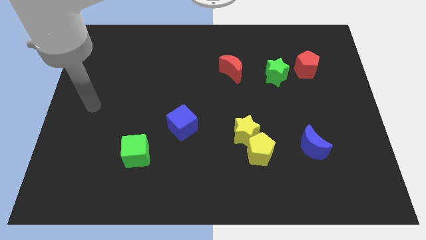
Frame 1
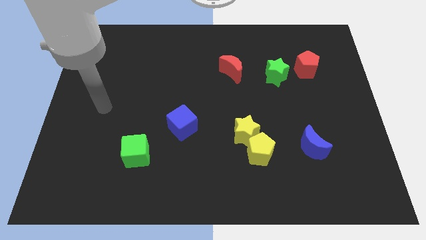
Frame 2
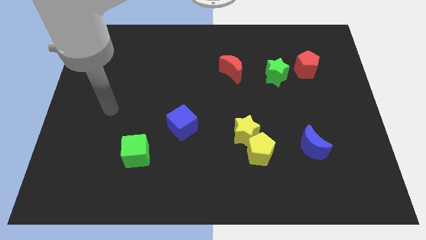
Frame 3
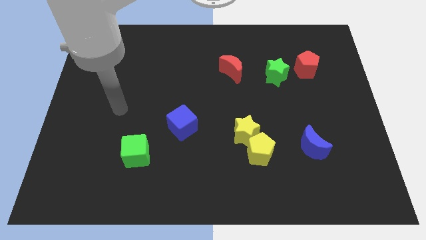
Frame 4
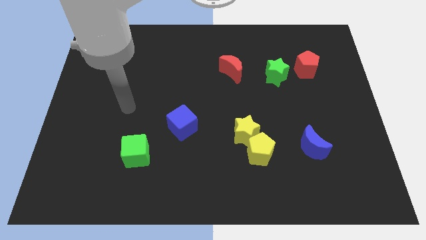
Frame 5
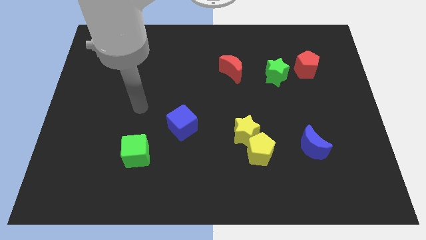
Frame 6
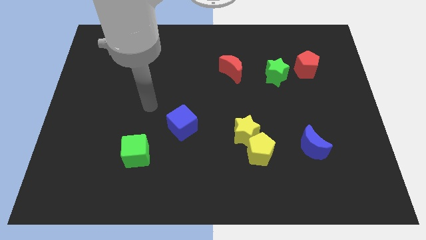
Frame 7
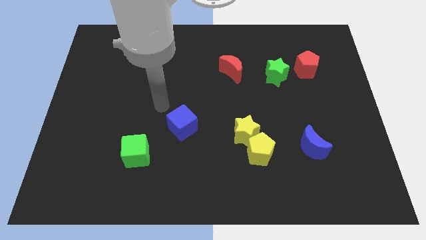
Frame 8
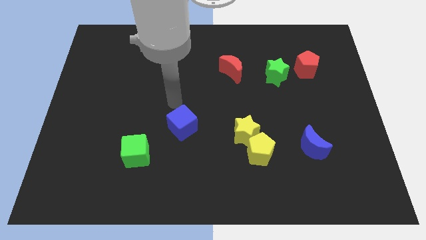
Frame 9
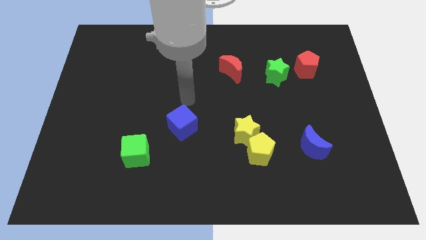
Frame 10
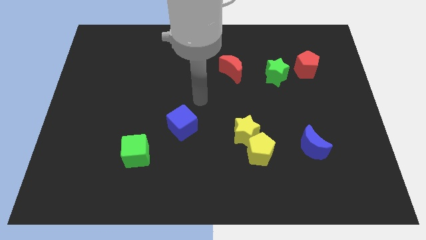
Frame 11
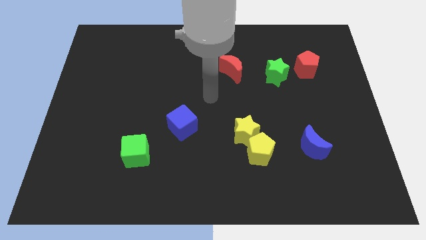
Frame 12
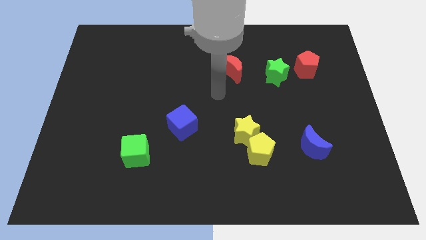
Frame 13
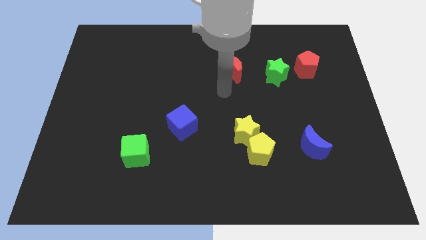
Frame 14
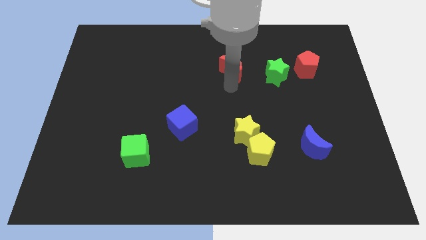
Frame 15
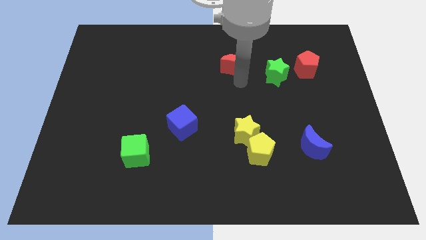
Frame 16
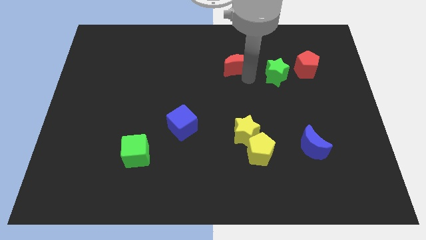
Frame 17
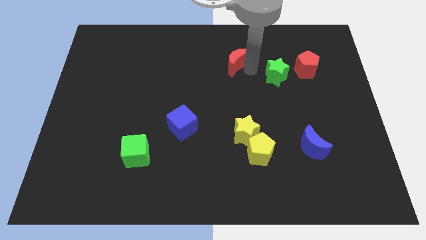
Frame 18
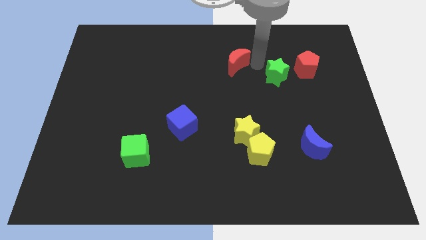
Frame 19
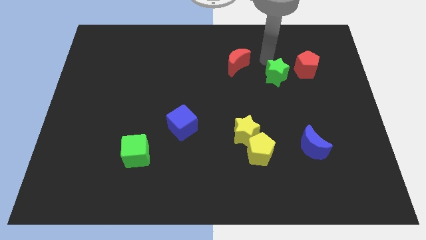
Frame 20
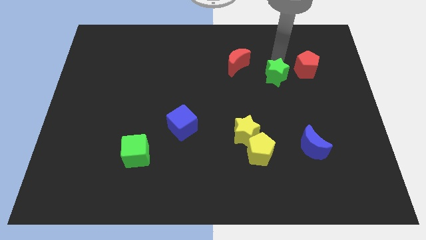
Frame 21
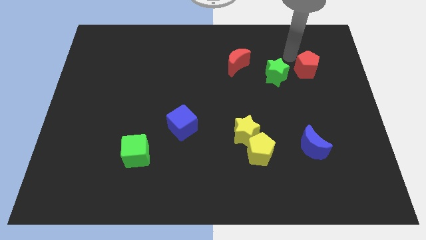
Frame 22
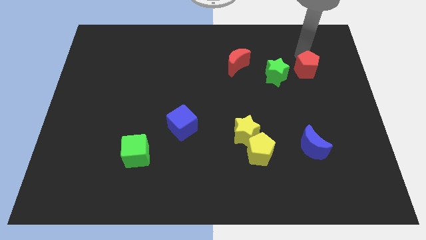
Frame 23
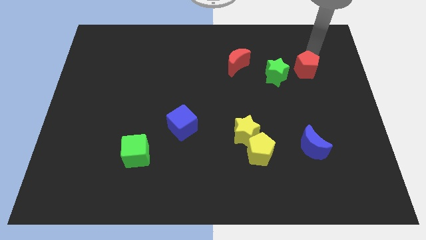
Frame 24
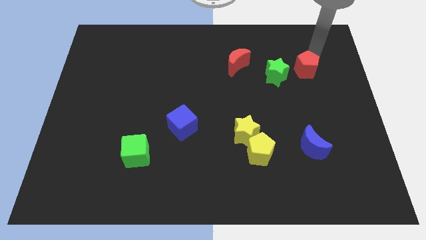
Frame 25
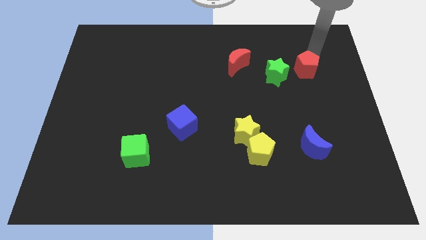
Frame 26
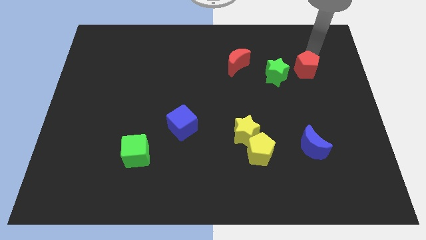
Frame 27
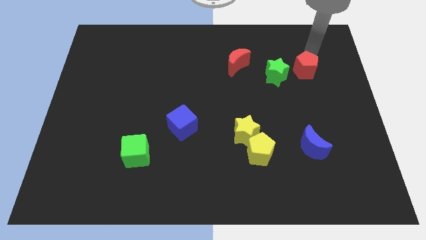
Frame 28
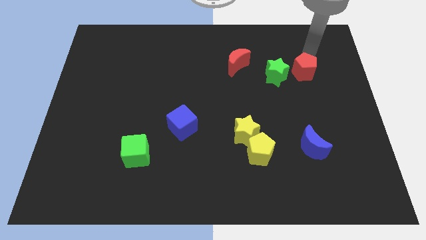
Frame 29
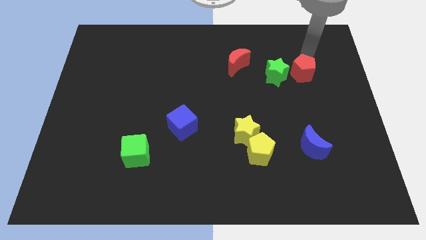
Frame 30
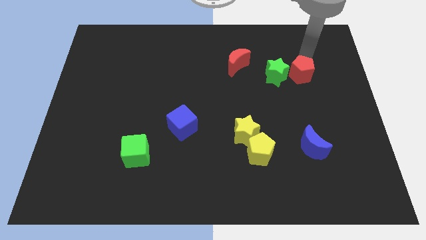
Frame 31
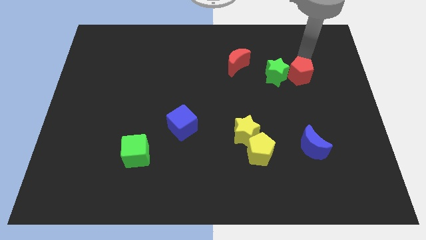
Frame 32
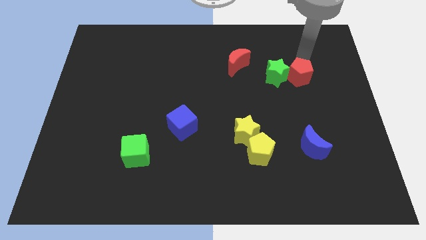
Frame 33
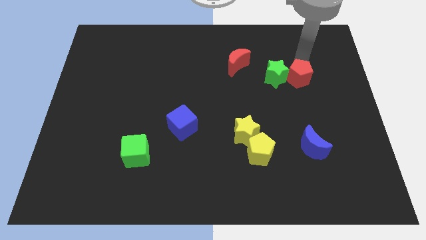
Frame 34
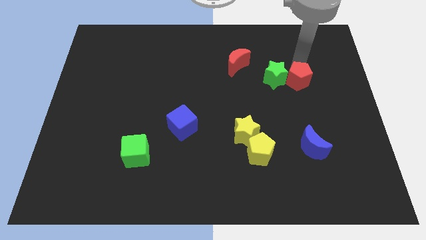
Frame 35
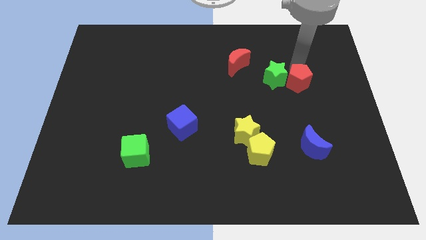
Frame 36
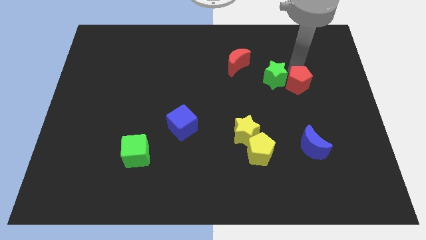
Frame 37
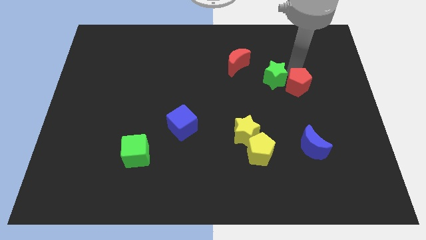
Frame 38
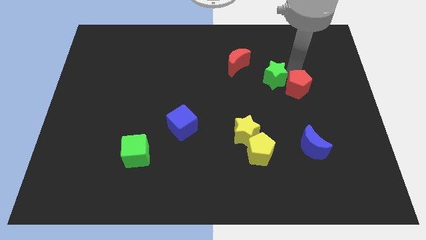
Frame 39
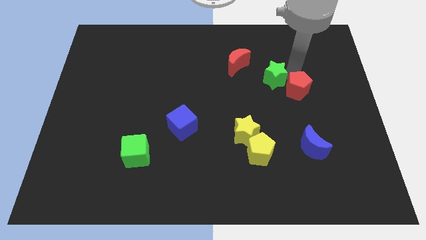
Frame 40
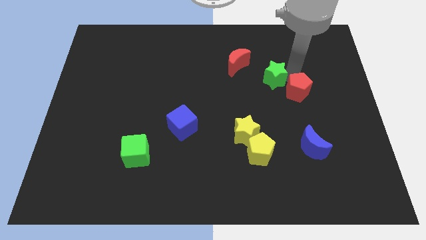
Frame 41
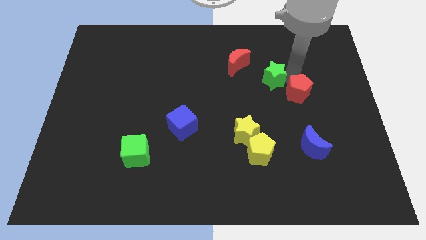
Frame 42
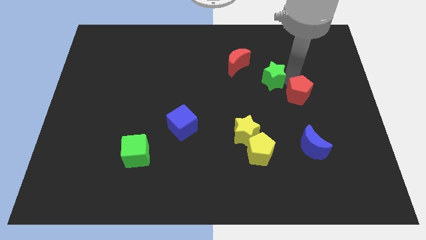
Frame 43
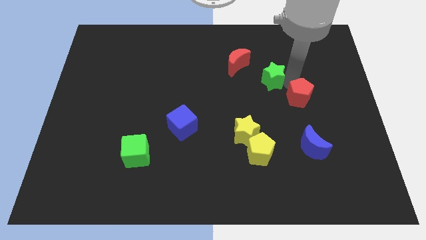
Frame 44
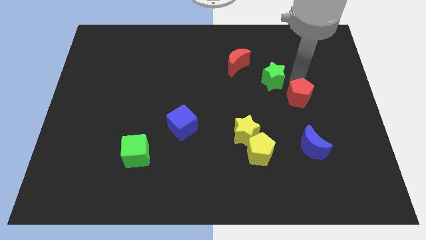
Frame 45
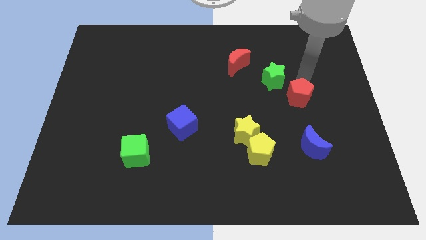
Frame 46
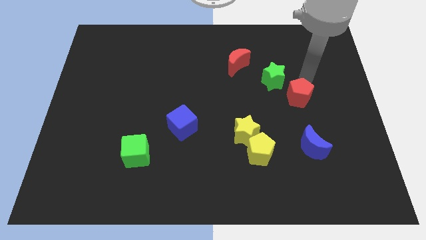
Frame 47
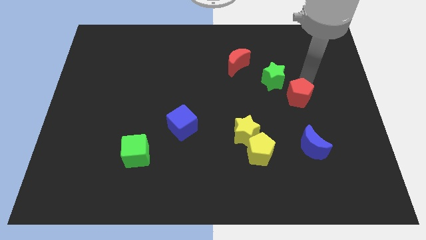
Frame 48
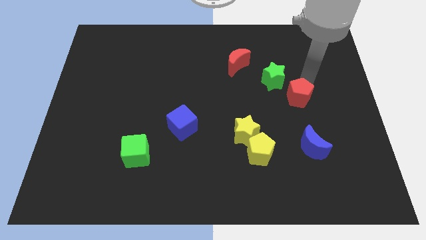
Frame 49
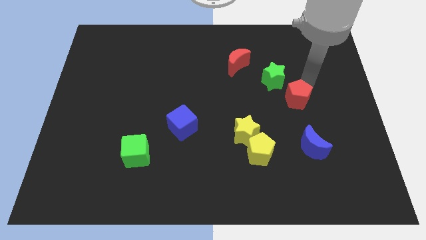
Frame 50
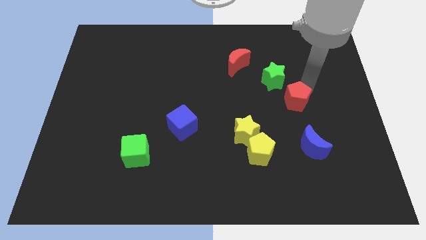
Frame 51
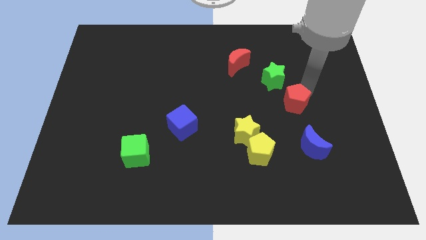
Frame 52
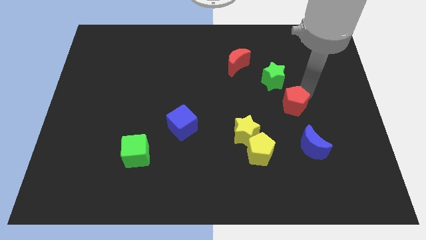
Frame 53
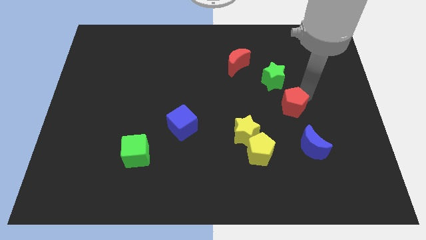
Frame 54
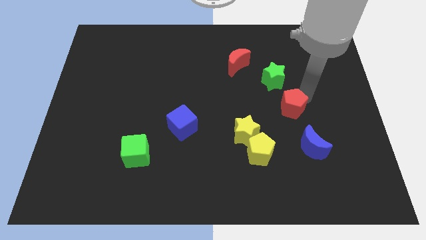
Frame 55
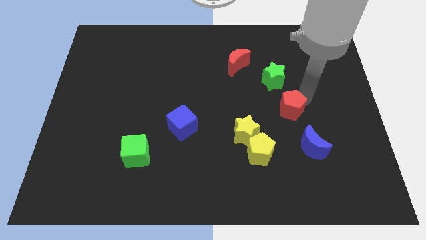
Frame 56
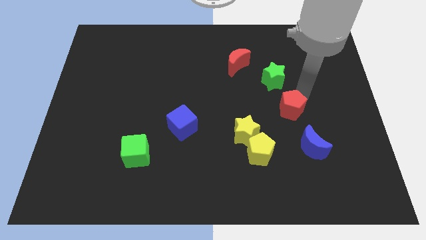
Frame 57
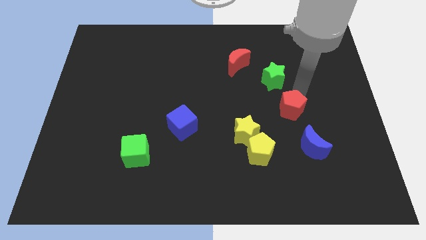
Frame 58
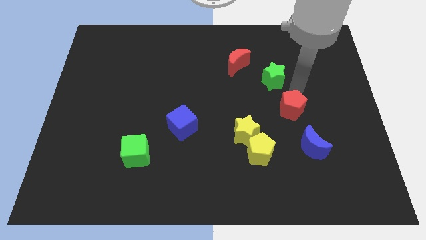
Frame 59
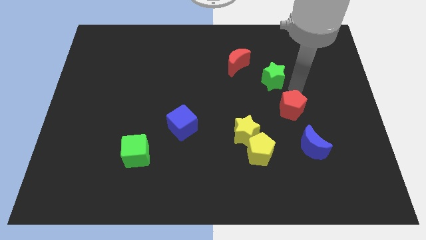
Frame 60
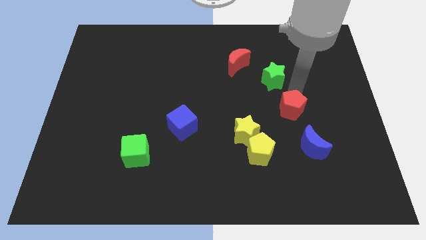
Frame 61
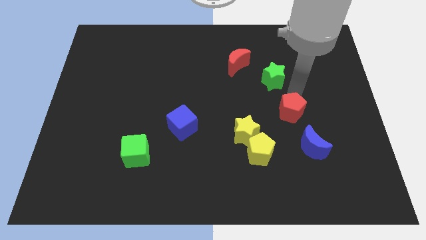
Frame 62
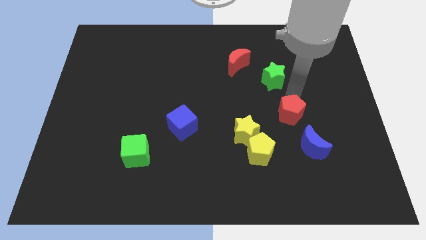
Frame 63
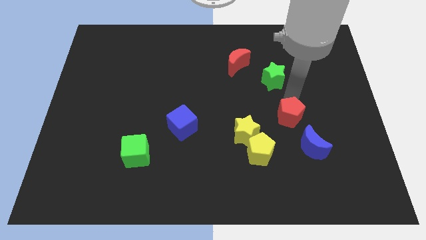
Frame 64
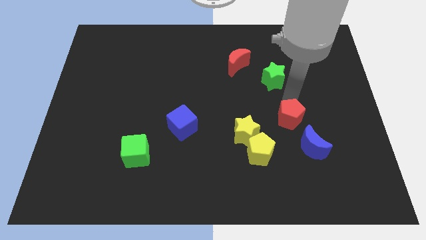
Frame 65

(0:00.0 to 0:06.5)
move the red pentagon right of the yellow star

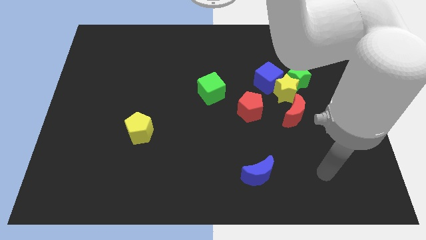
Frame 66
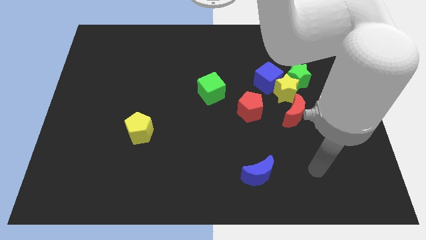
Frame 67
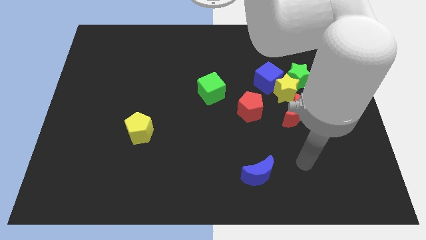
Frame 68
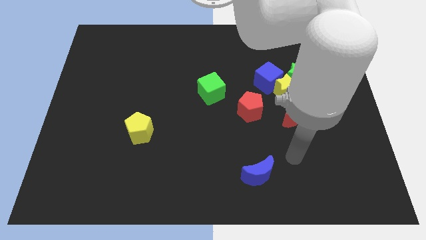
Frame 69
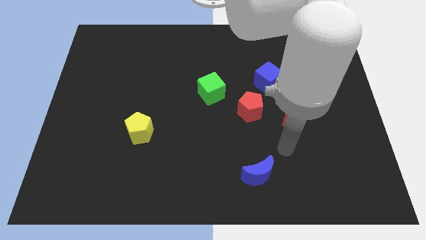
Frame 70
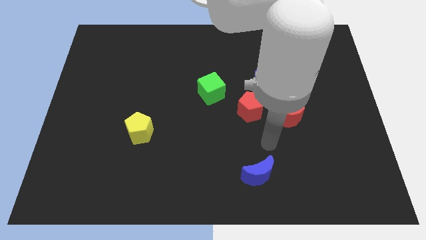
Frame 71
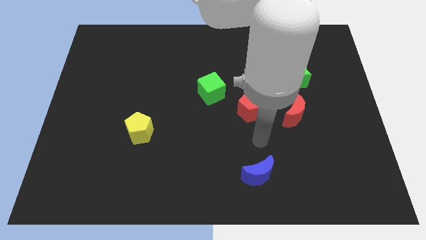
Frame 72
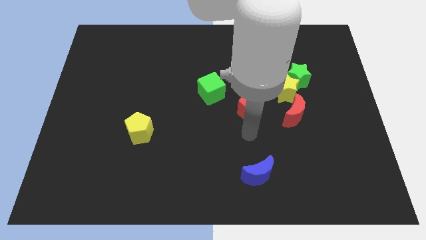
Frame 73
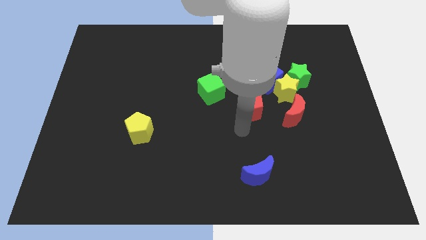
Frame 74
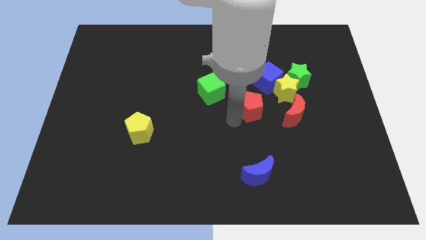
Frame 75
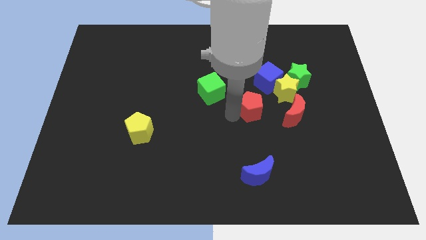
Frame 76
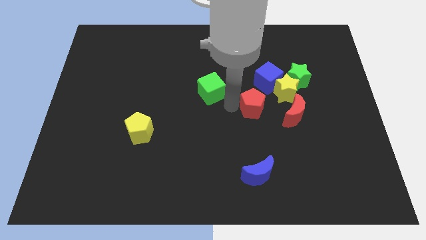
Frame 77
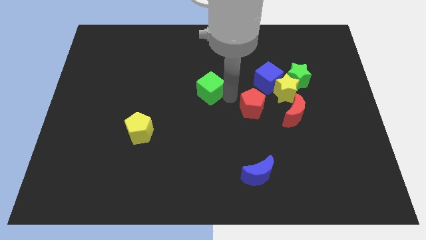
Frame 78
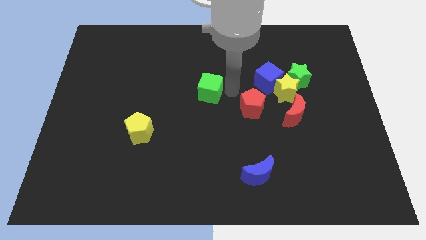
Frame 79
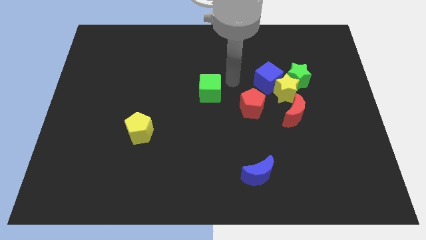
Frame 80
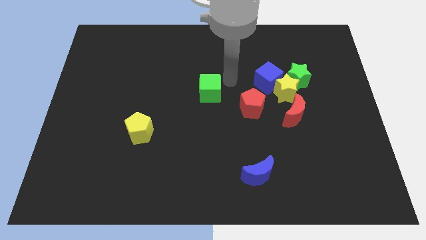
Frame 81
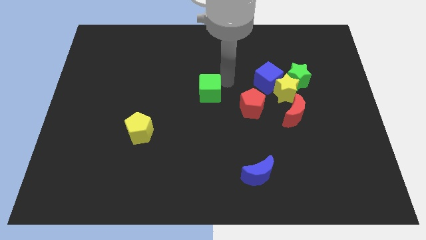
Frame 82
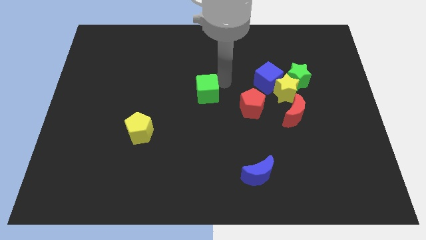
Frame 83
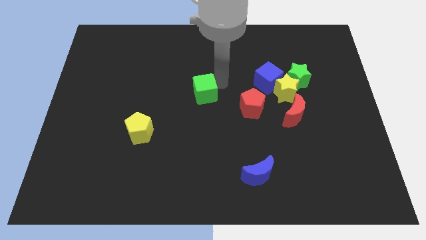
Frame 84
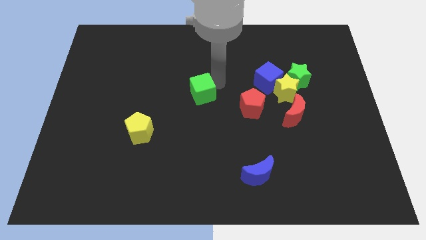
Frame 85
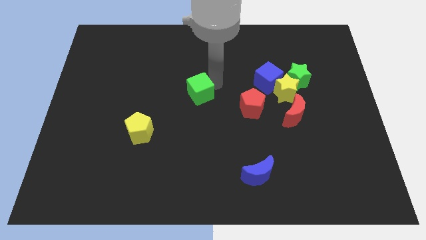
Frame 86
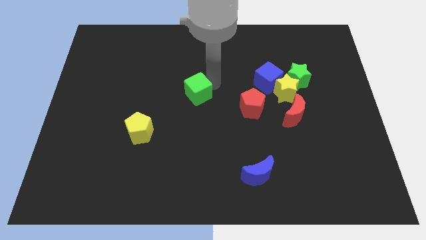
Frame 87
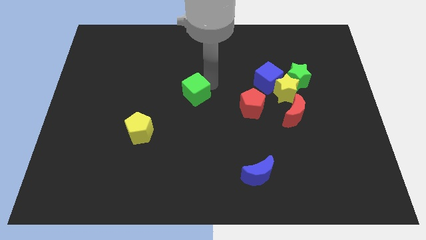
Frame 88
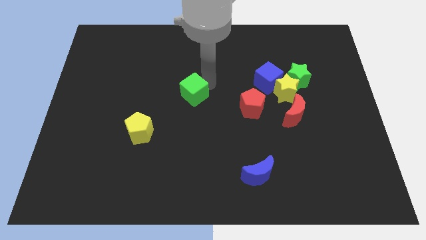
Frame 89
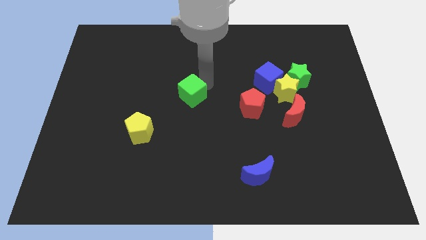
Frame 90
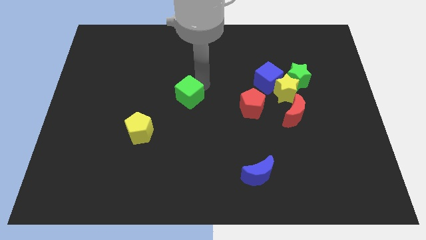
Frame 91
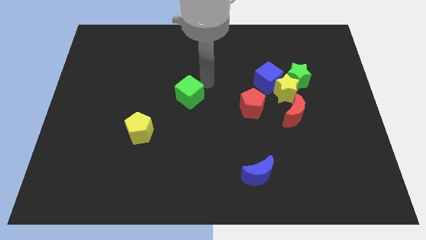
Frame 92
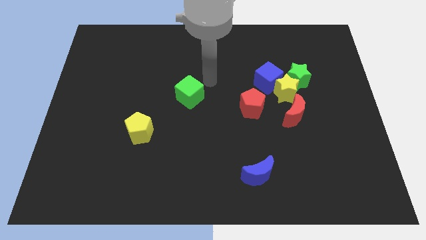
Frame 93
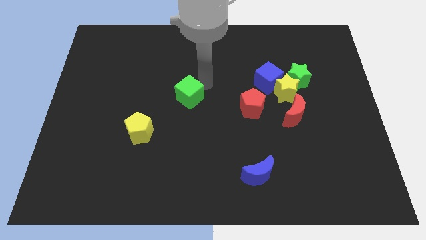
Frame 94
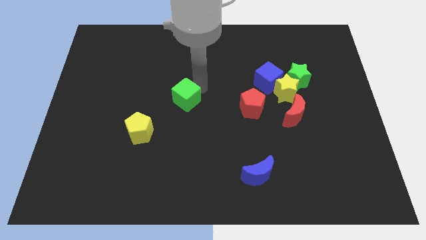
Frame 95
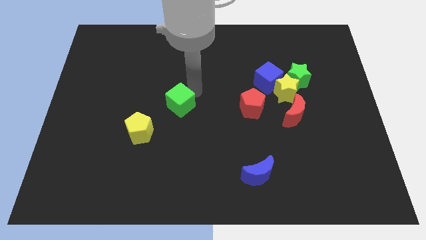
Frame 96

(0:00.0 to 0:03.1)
move the green cube diagonally up and to the right of the yellow pentagon
